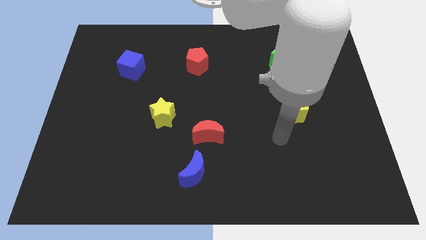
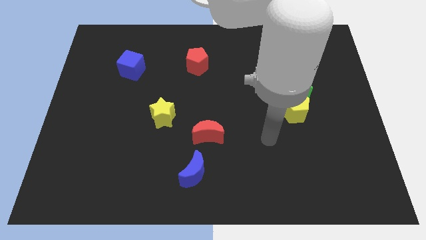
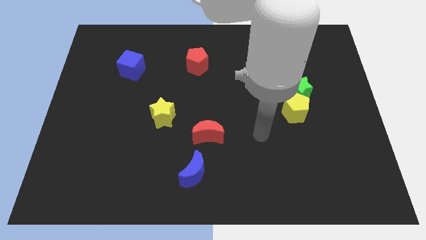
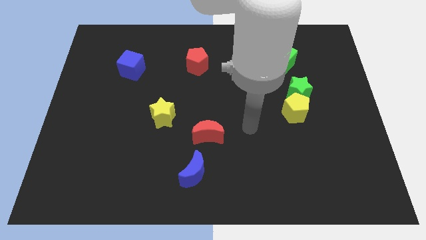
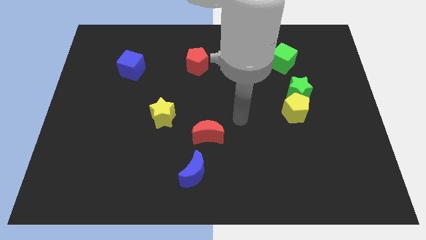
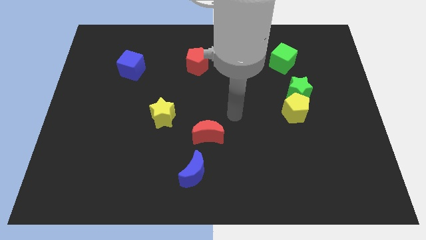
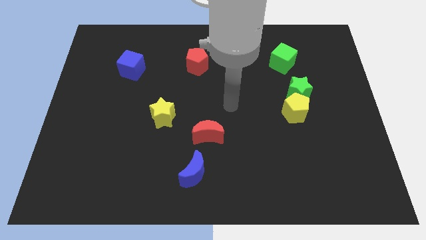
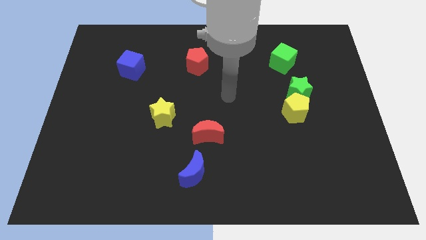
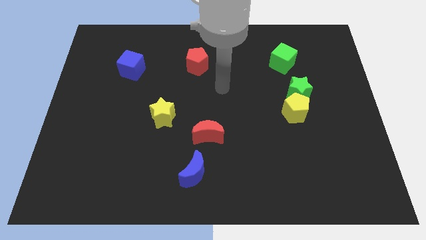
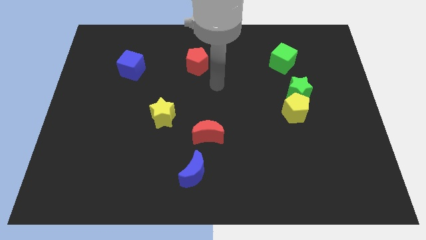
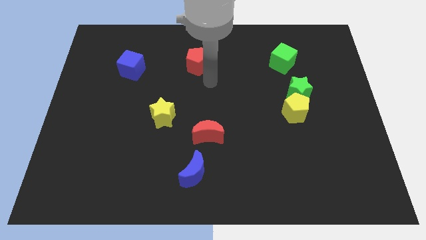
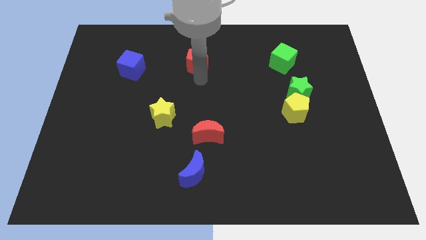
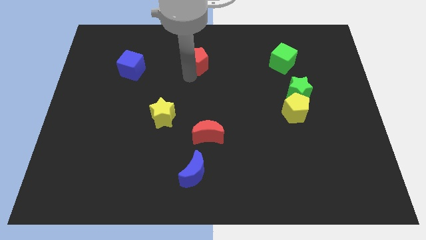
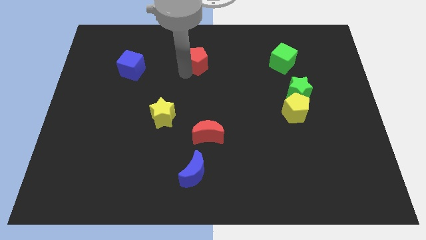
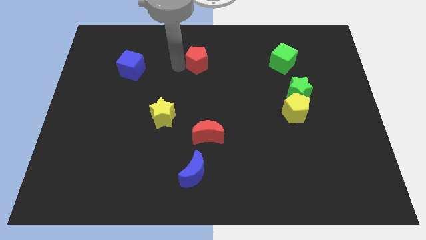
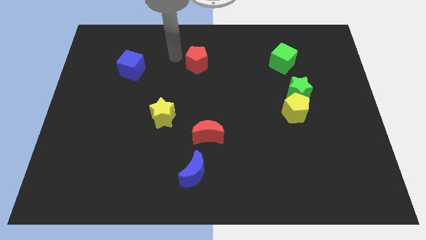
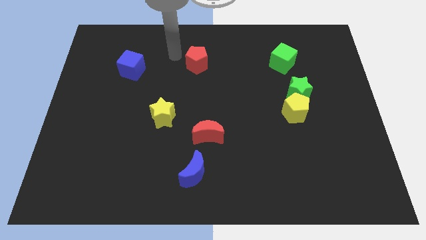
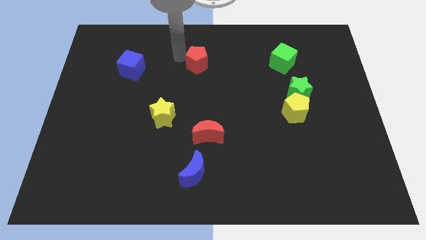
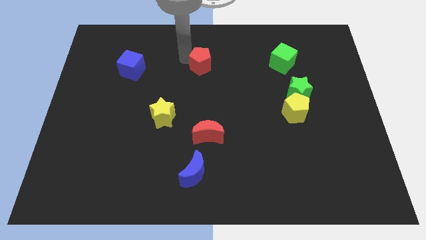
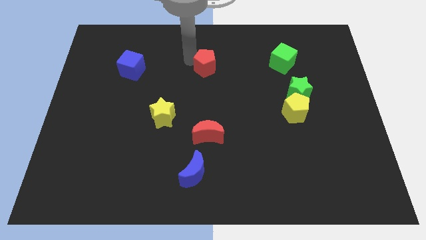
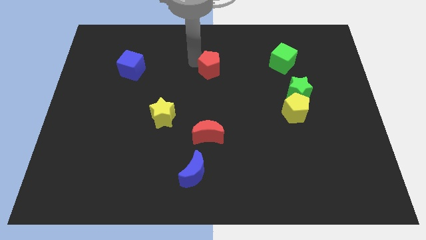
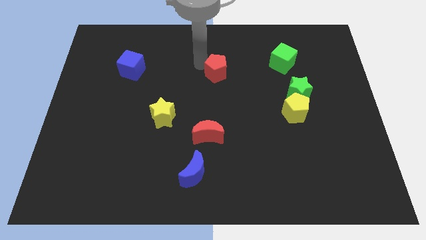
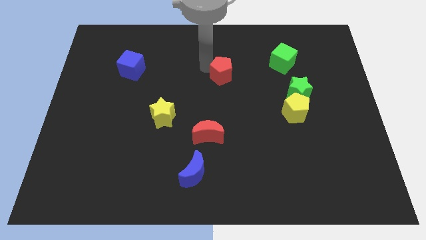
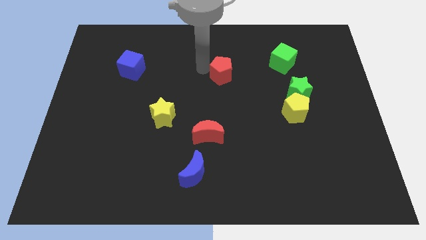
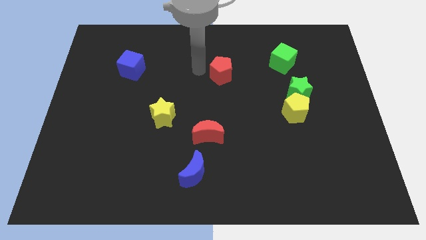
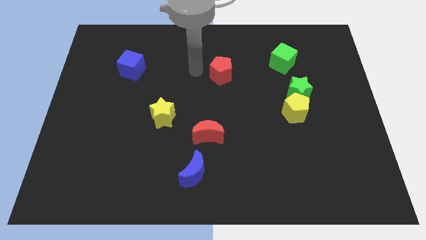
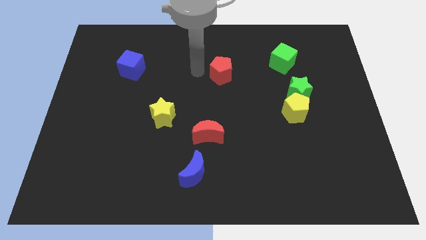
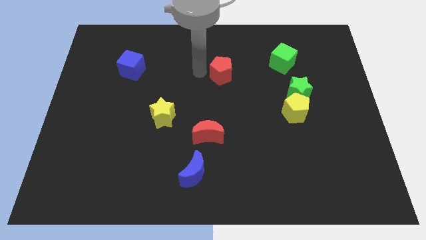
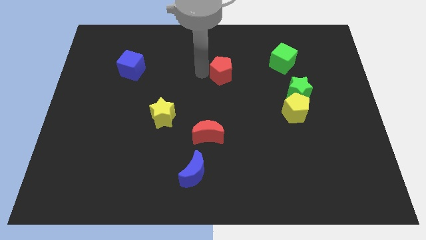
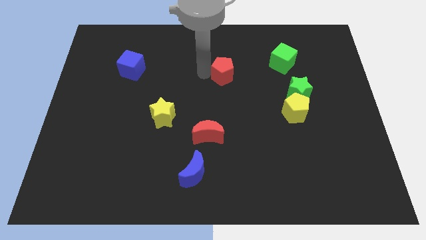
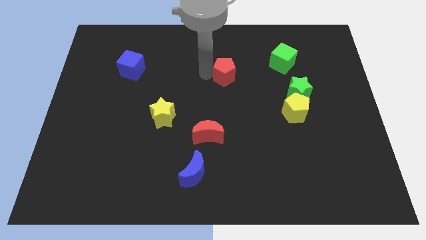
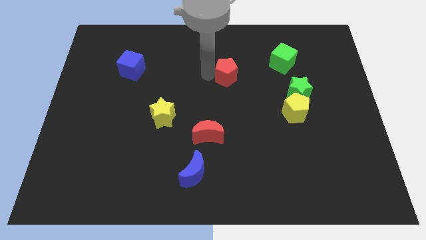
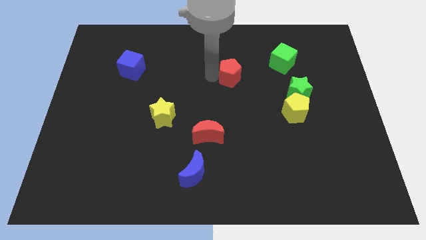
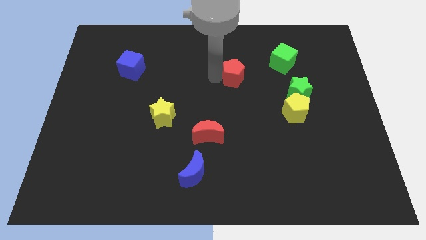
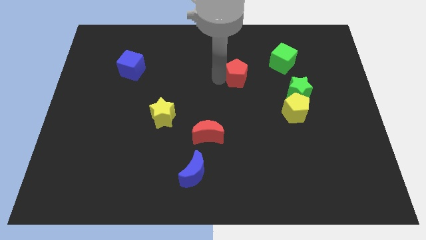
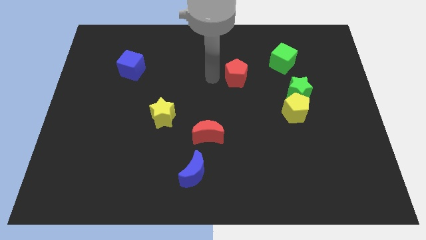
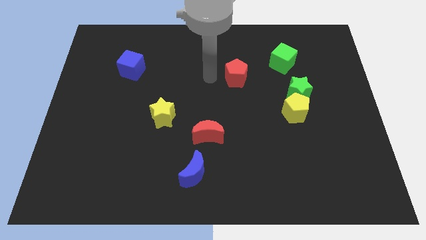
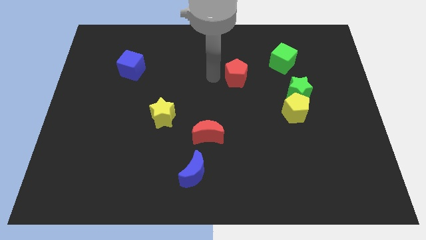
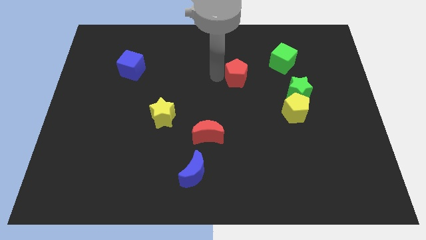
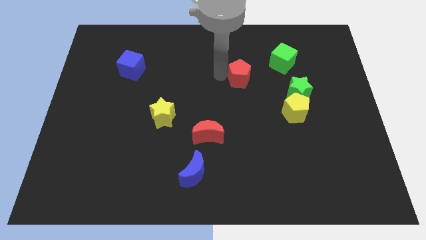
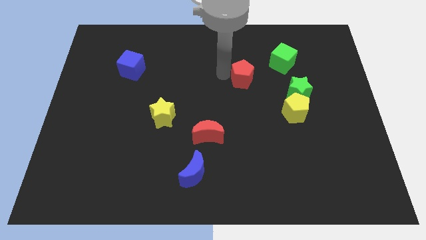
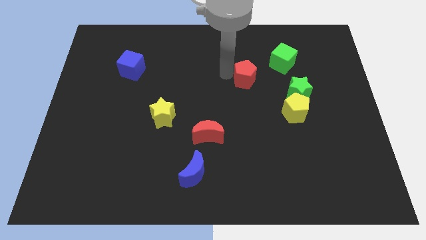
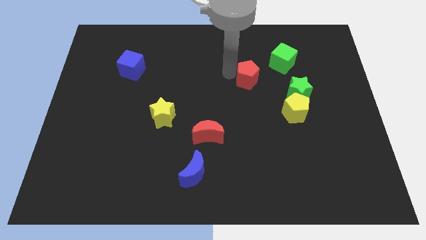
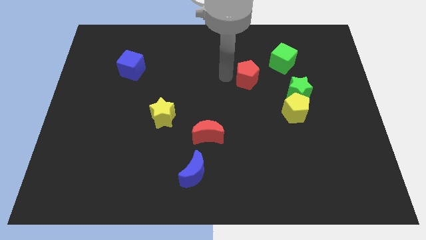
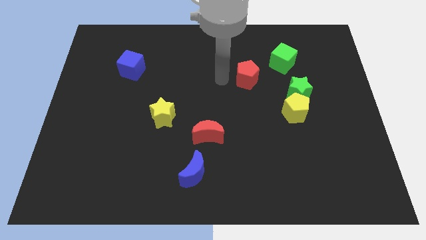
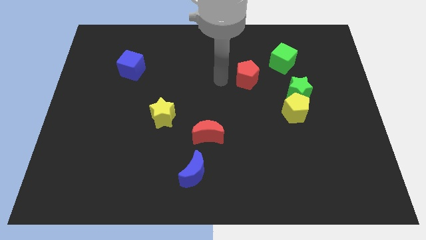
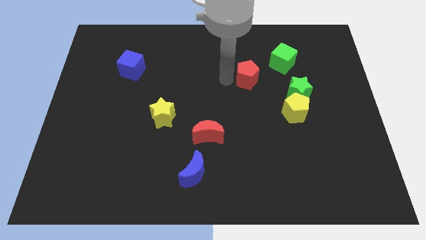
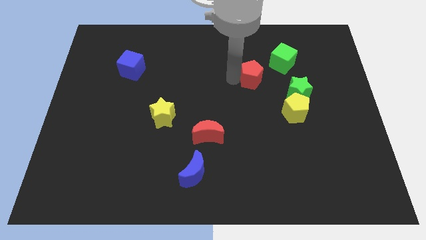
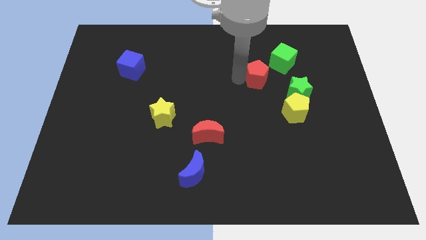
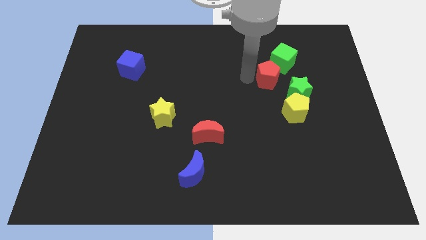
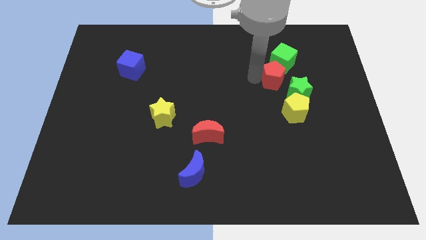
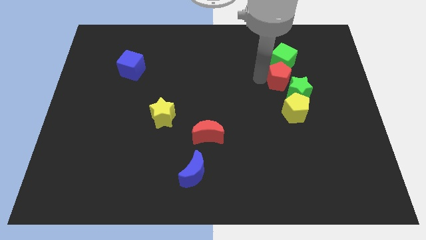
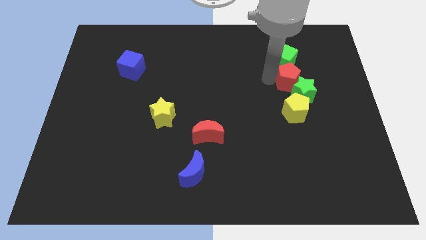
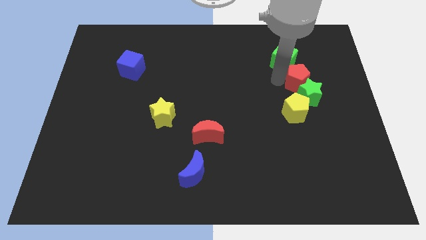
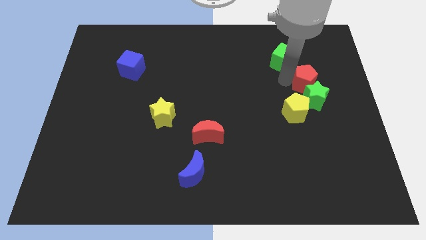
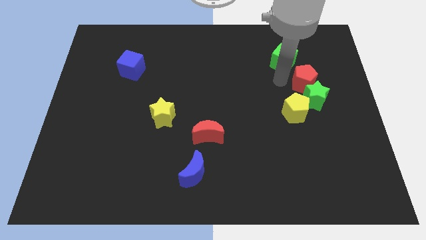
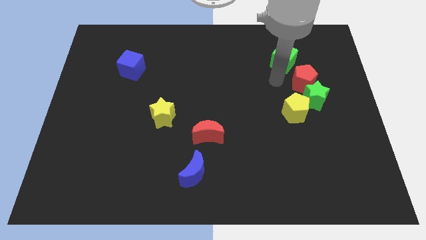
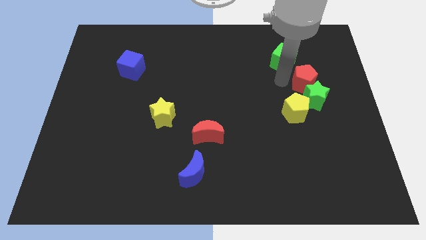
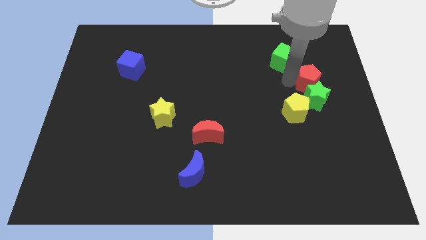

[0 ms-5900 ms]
move the red pentagon to the top right side of the green star

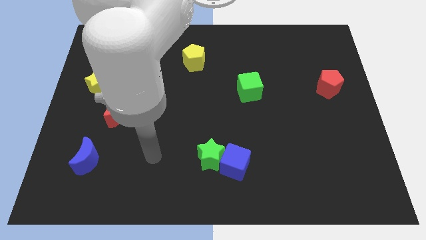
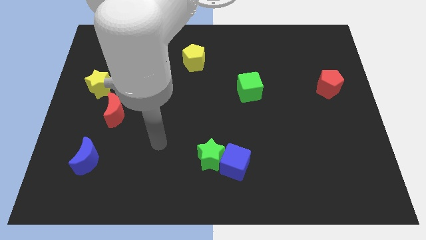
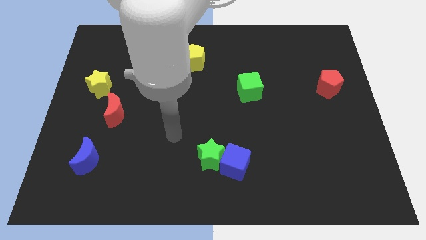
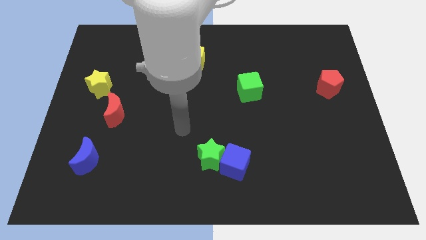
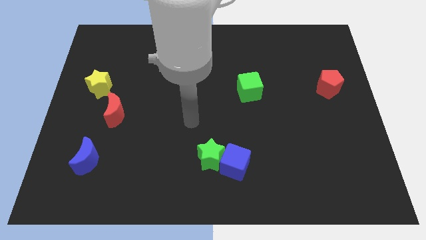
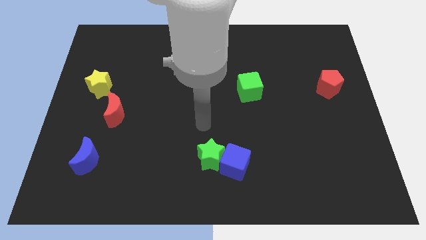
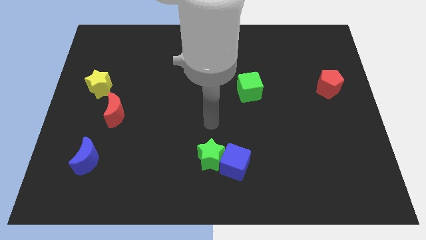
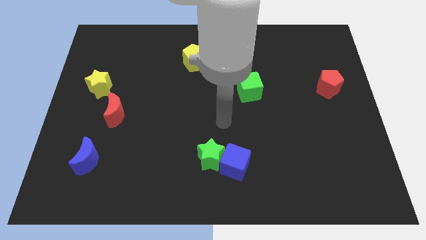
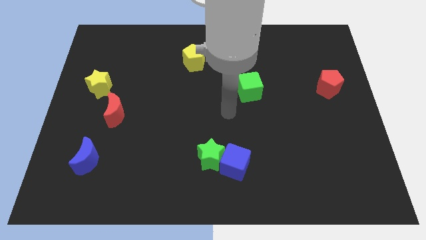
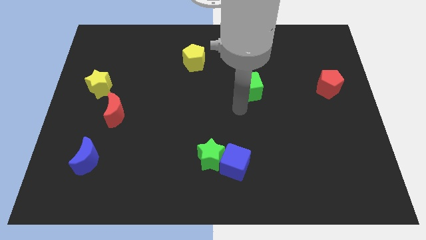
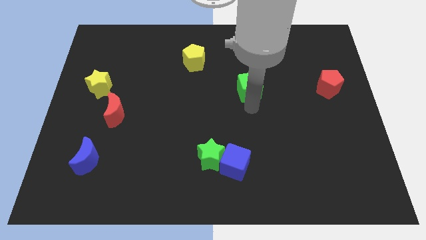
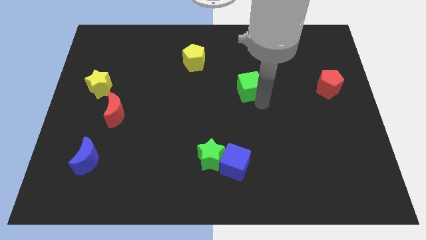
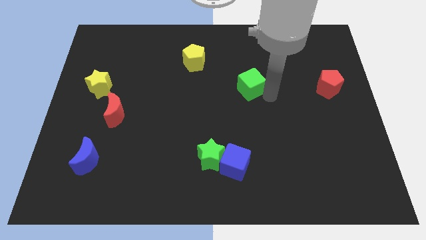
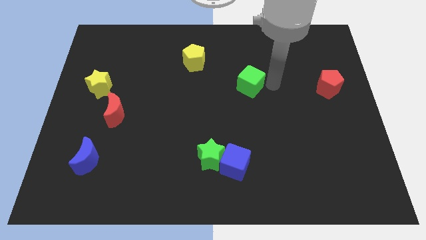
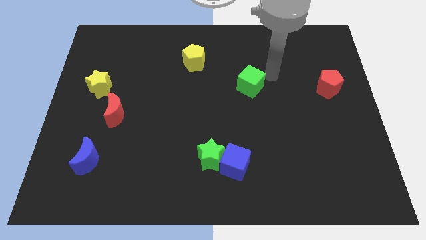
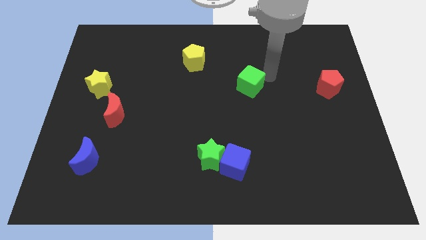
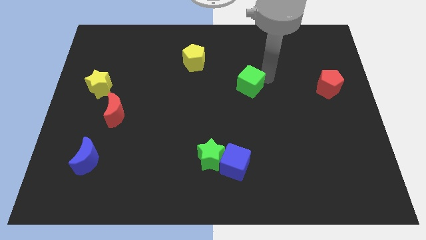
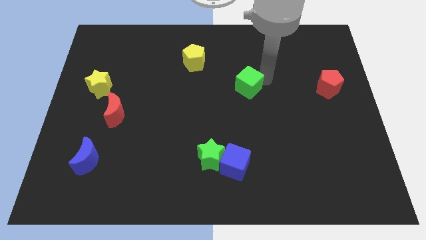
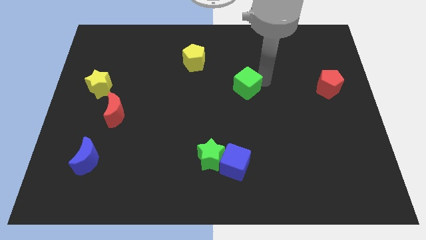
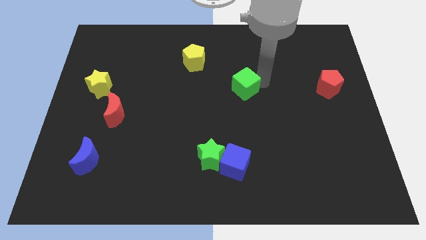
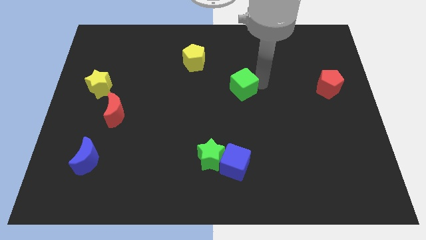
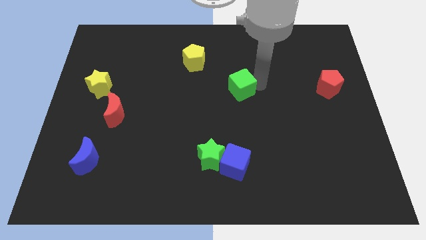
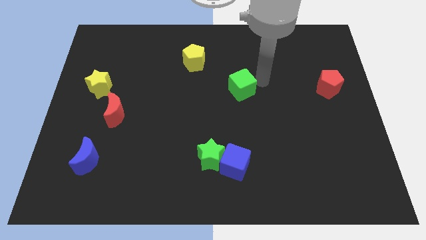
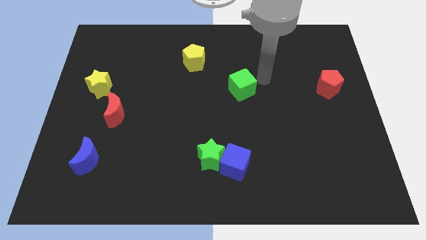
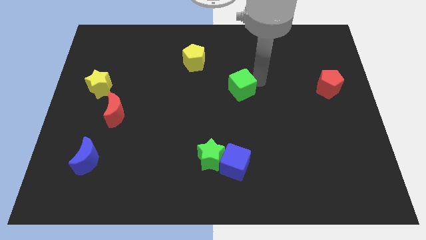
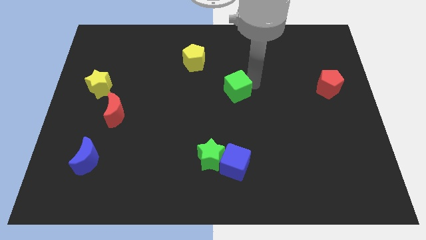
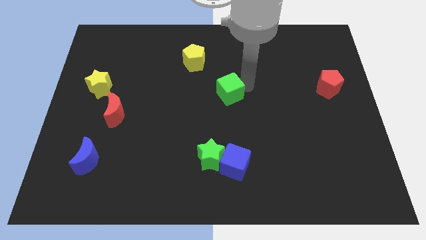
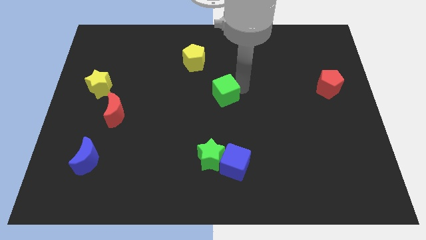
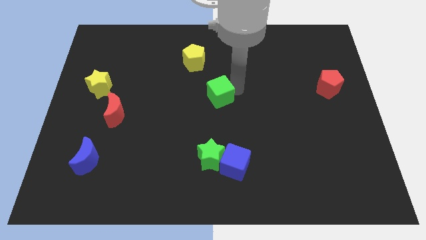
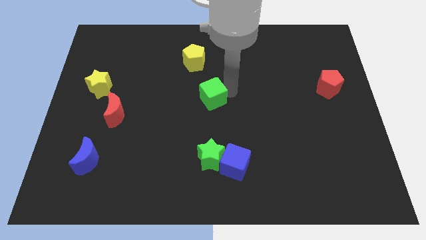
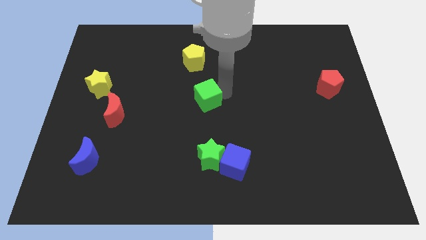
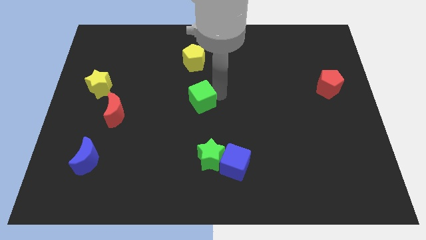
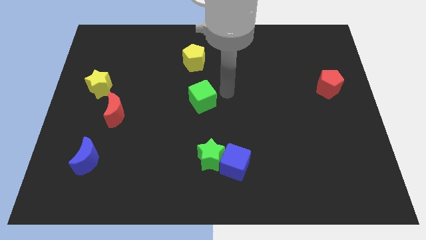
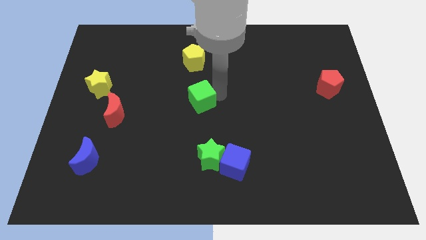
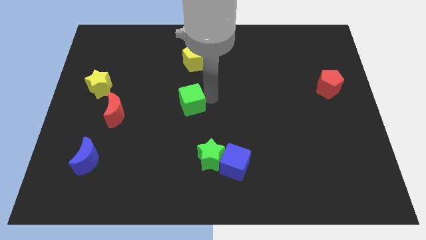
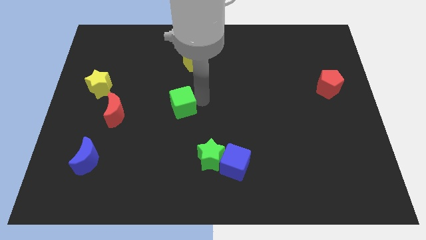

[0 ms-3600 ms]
slide the green cube just right of the red moon
